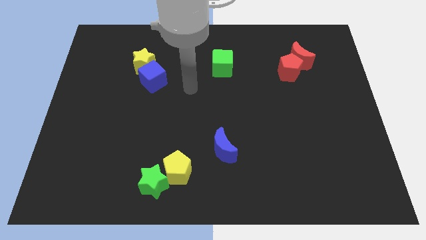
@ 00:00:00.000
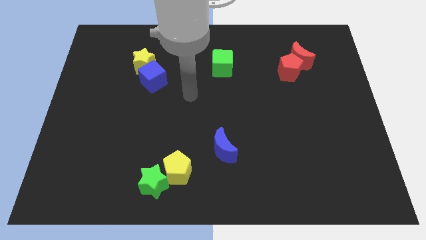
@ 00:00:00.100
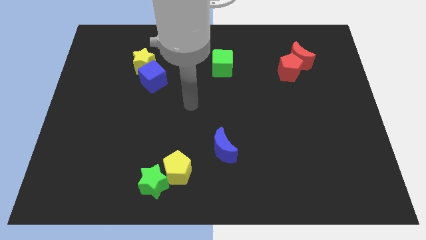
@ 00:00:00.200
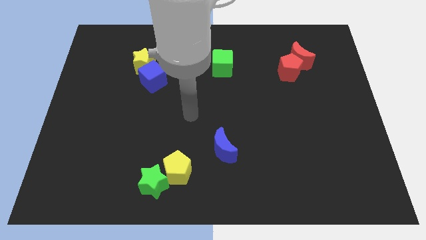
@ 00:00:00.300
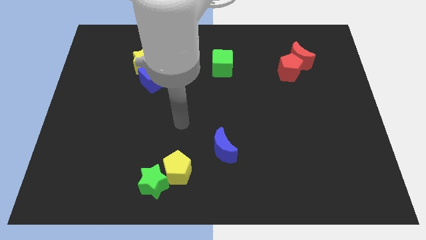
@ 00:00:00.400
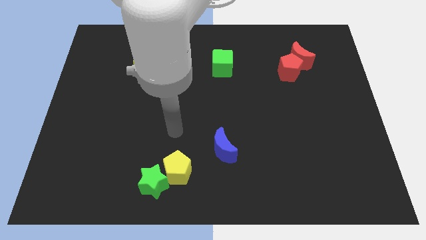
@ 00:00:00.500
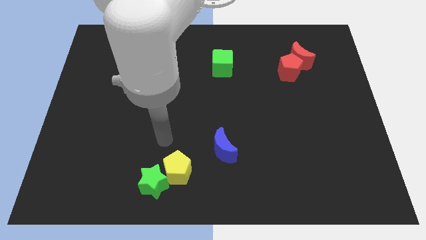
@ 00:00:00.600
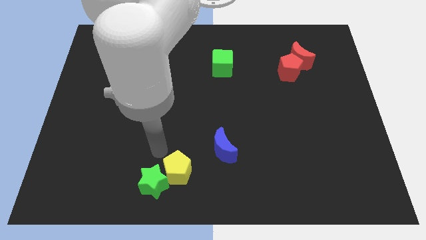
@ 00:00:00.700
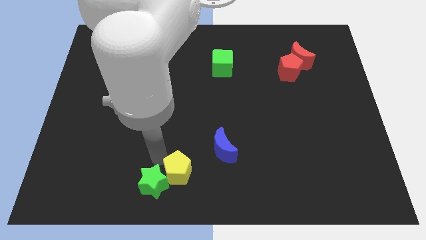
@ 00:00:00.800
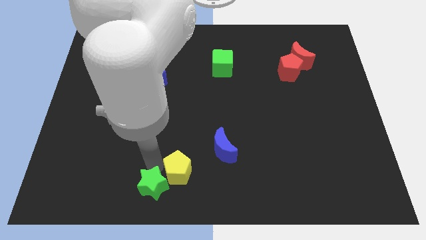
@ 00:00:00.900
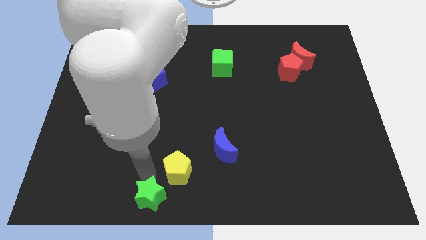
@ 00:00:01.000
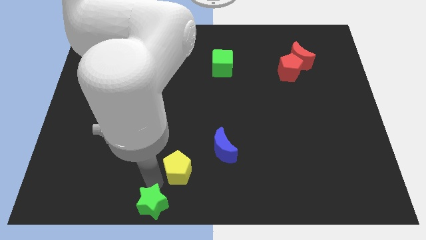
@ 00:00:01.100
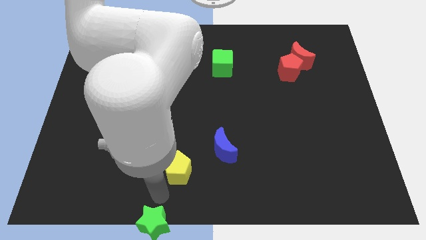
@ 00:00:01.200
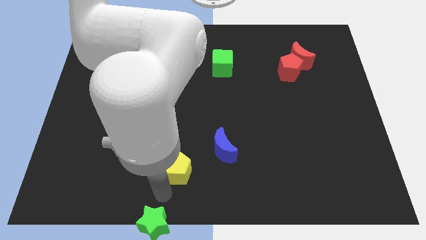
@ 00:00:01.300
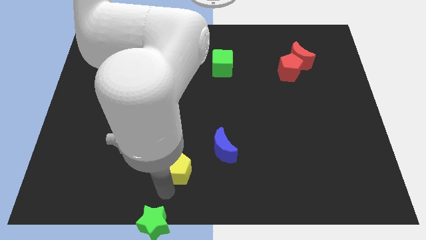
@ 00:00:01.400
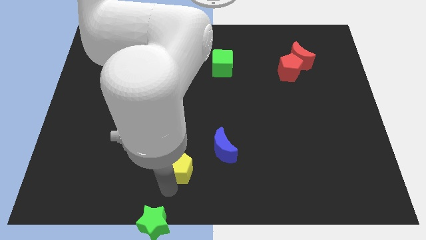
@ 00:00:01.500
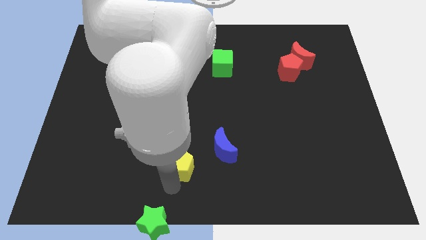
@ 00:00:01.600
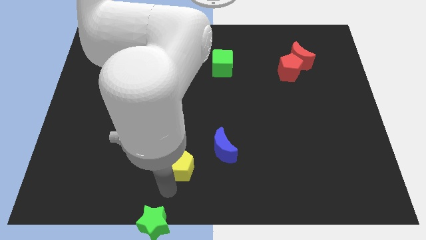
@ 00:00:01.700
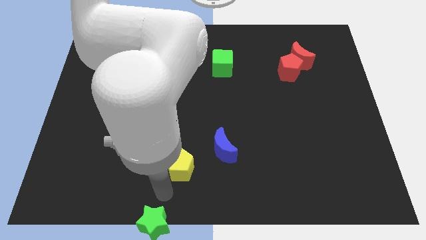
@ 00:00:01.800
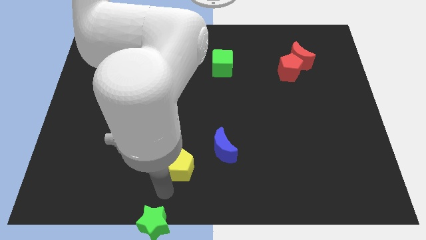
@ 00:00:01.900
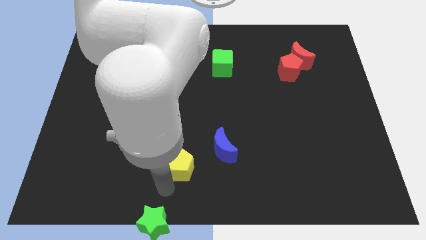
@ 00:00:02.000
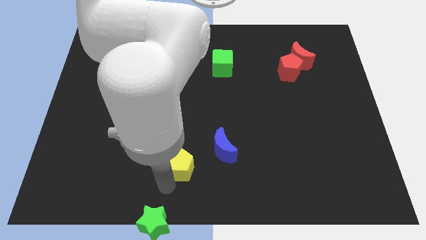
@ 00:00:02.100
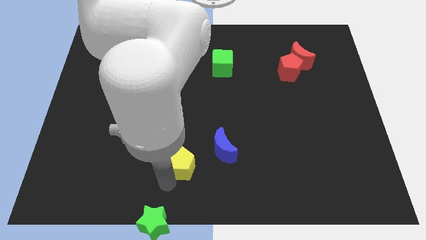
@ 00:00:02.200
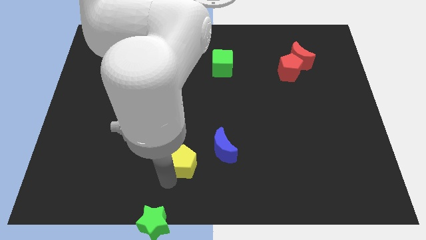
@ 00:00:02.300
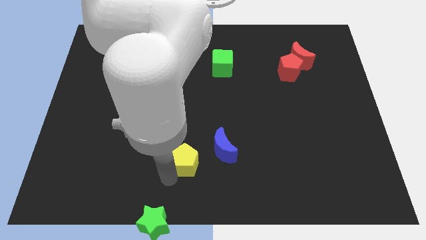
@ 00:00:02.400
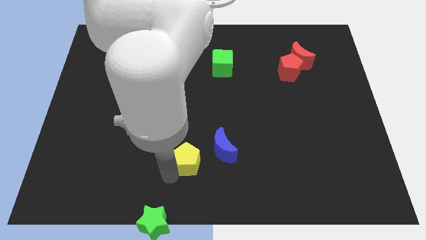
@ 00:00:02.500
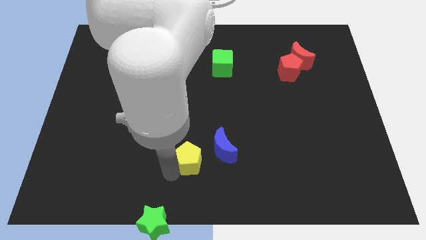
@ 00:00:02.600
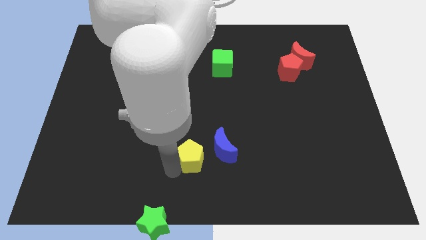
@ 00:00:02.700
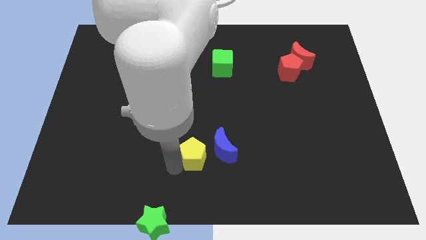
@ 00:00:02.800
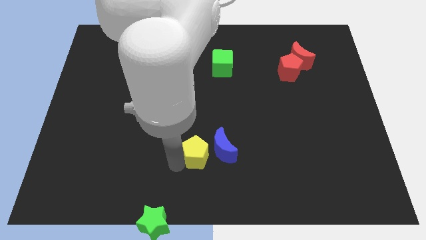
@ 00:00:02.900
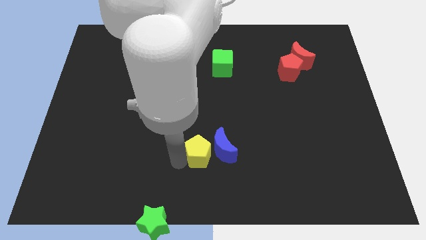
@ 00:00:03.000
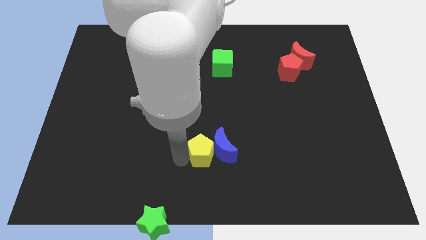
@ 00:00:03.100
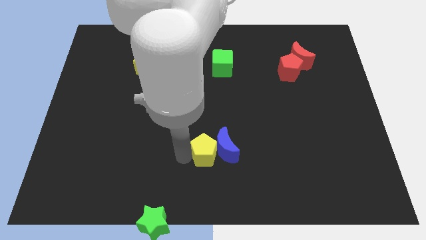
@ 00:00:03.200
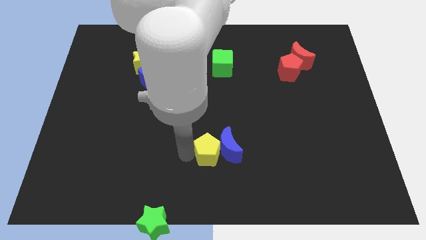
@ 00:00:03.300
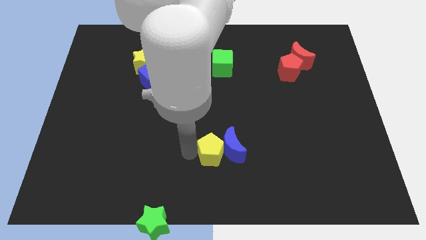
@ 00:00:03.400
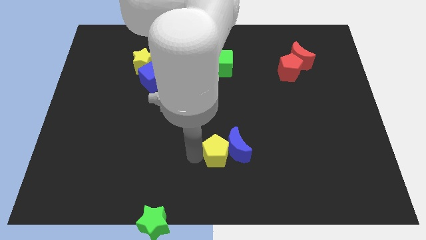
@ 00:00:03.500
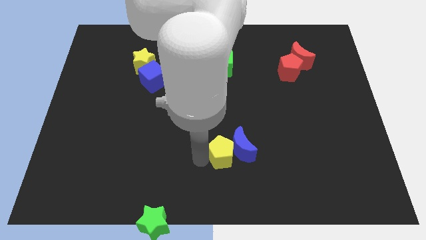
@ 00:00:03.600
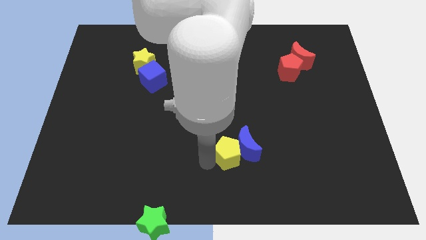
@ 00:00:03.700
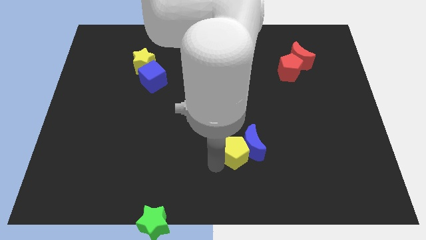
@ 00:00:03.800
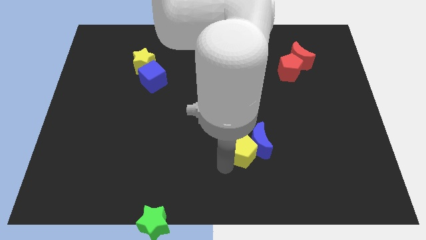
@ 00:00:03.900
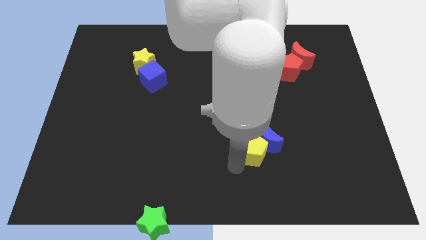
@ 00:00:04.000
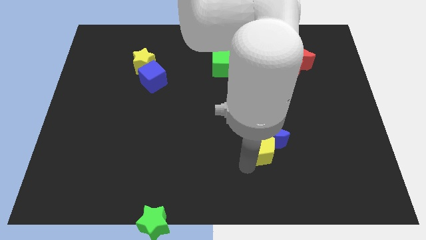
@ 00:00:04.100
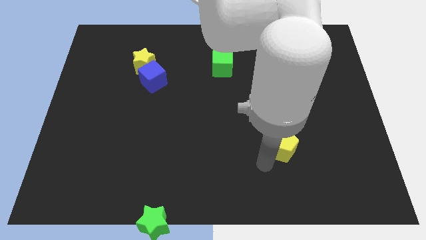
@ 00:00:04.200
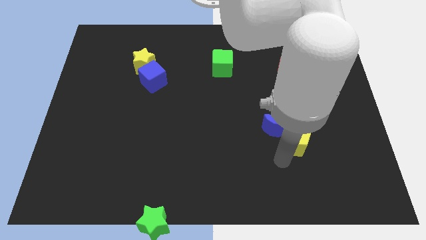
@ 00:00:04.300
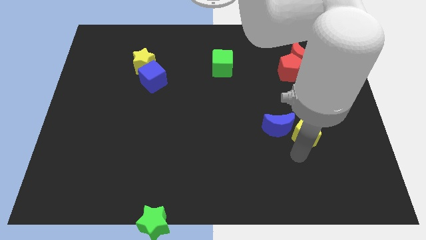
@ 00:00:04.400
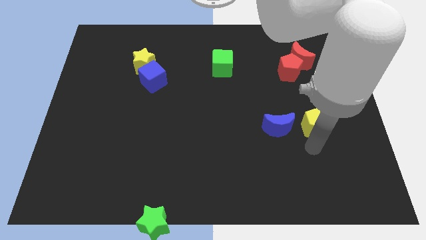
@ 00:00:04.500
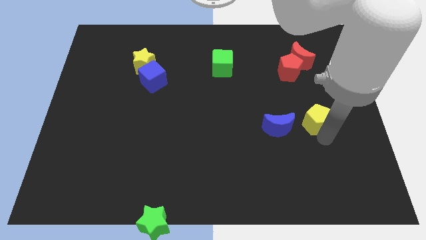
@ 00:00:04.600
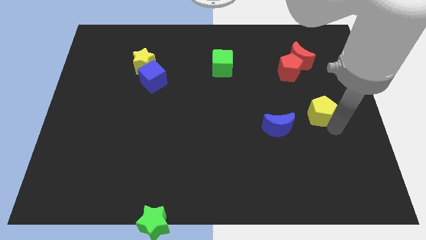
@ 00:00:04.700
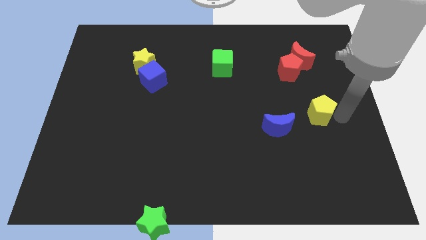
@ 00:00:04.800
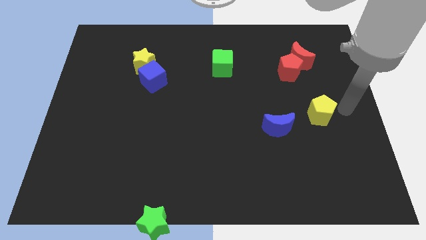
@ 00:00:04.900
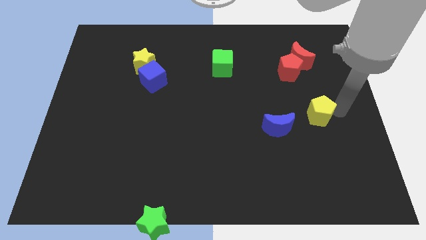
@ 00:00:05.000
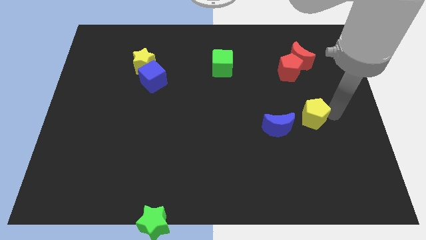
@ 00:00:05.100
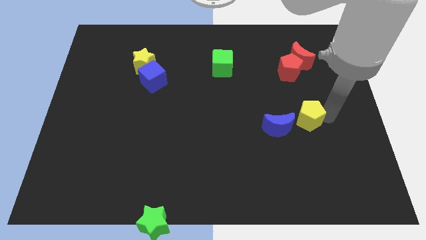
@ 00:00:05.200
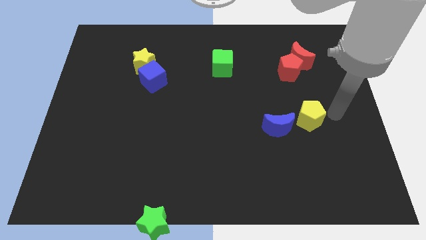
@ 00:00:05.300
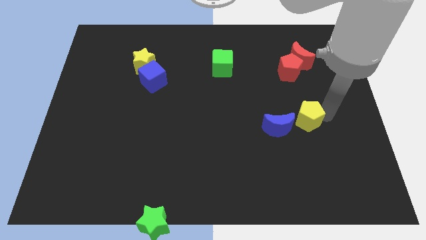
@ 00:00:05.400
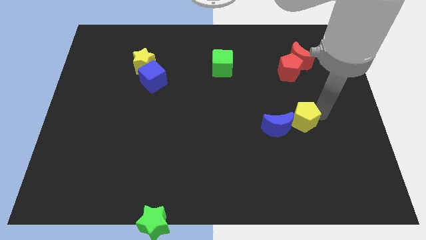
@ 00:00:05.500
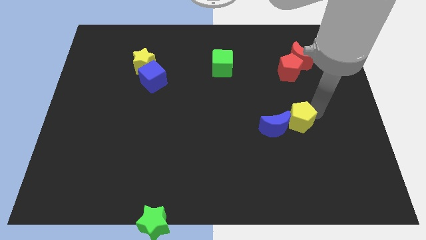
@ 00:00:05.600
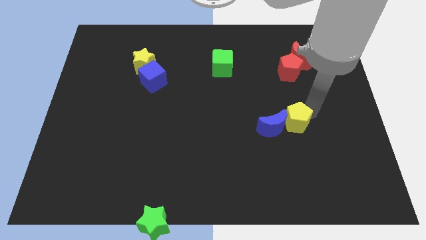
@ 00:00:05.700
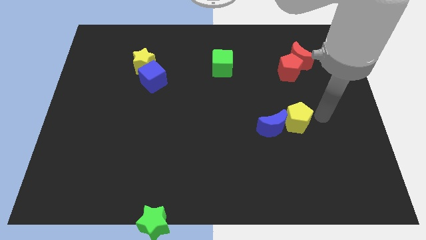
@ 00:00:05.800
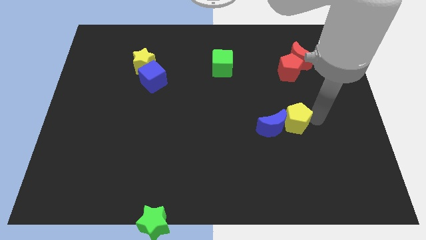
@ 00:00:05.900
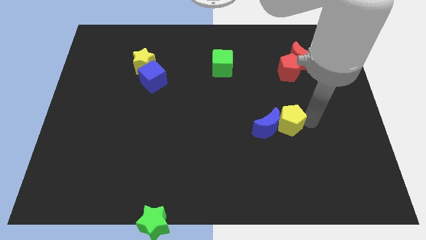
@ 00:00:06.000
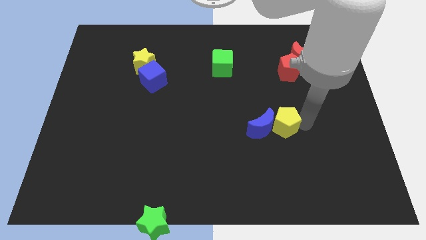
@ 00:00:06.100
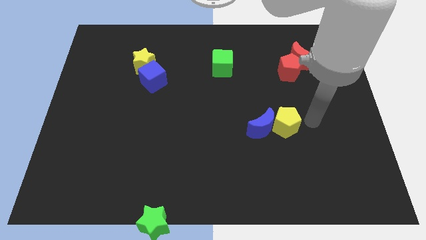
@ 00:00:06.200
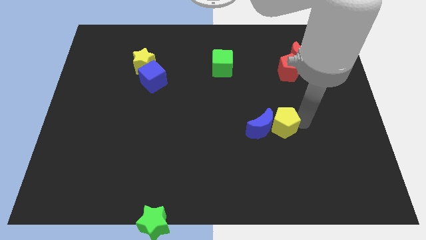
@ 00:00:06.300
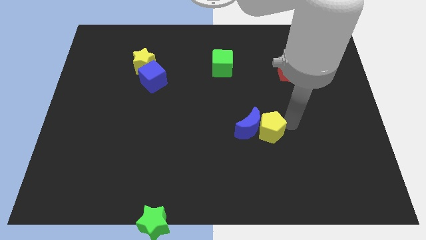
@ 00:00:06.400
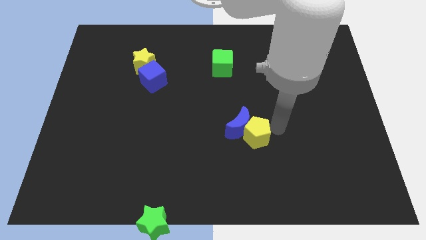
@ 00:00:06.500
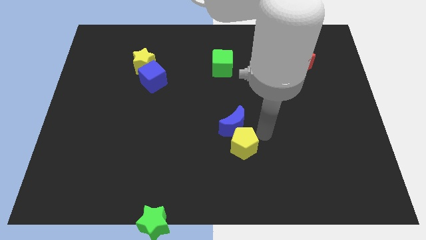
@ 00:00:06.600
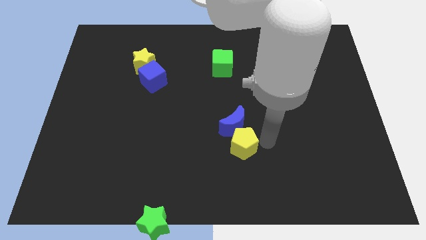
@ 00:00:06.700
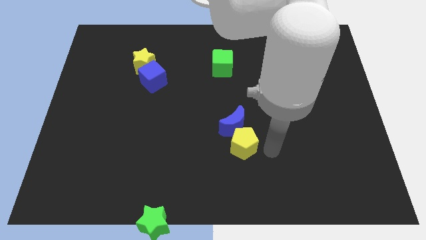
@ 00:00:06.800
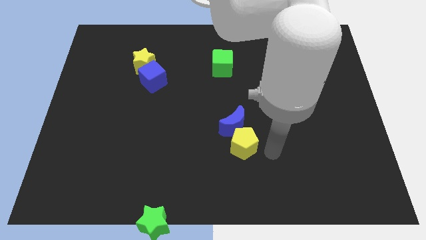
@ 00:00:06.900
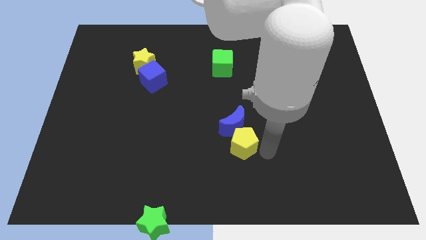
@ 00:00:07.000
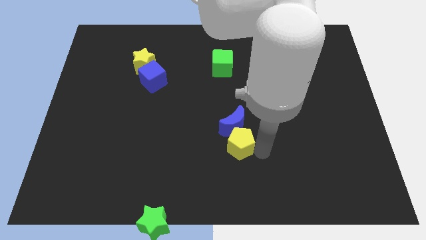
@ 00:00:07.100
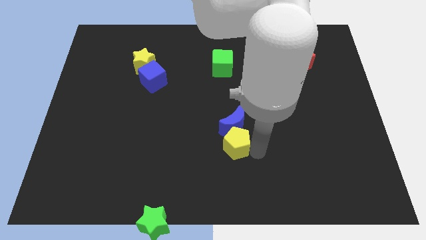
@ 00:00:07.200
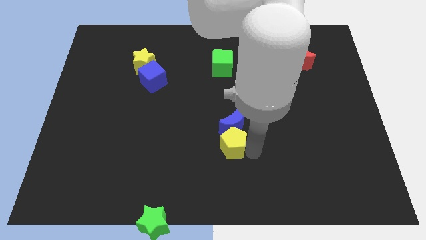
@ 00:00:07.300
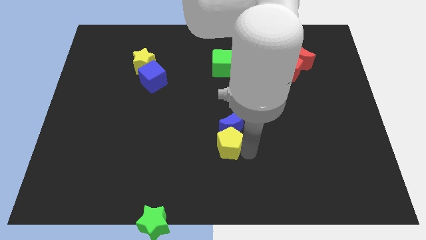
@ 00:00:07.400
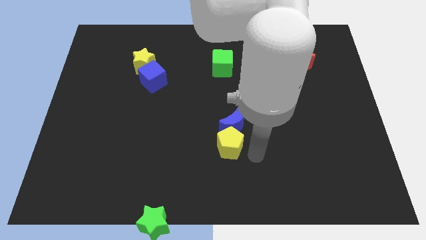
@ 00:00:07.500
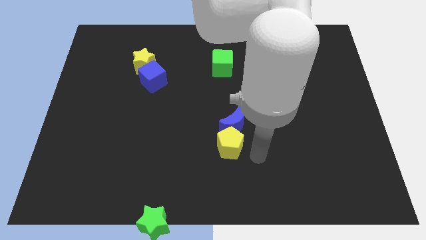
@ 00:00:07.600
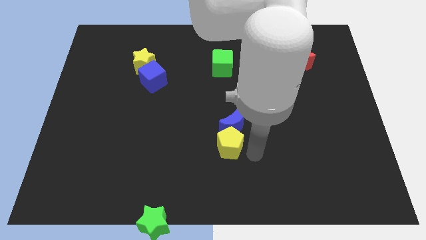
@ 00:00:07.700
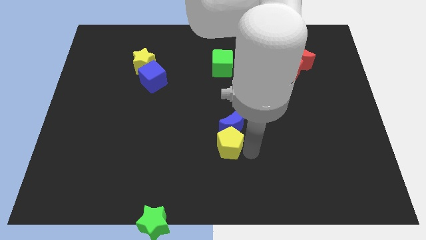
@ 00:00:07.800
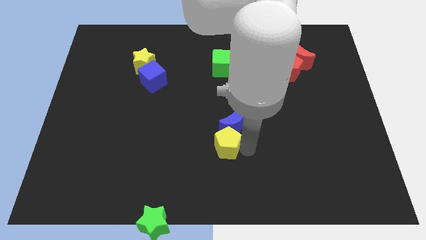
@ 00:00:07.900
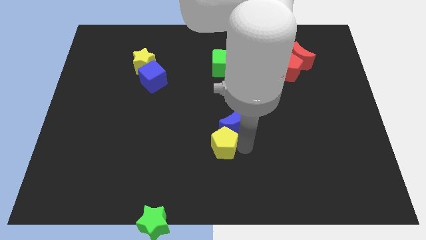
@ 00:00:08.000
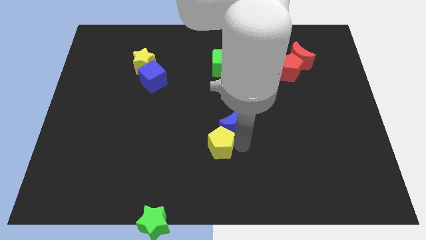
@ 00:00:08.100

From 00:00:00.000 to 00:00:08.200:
put the yellow pentagon to the middle
